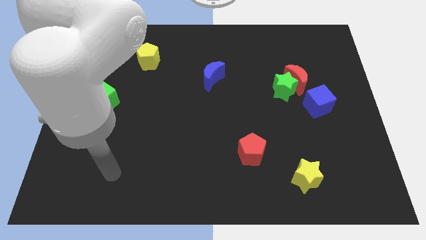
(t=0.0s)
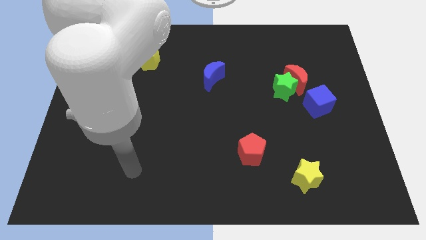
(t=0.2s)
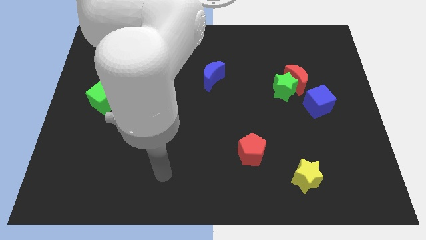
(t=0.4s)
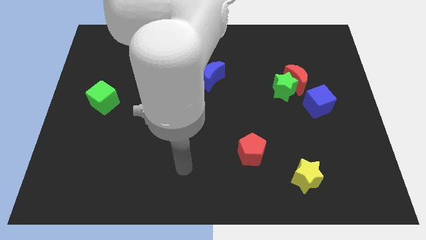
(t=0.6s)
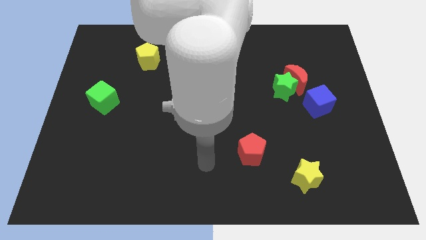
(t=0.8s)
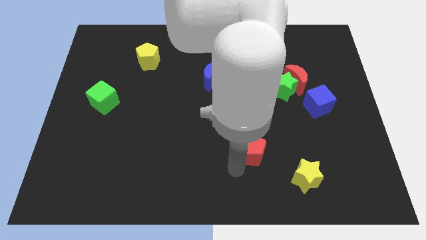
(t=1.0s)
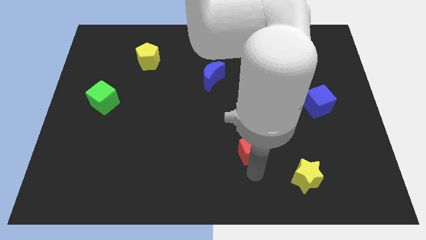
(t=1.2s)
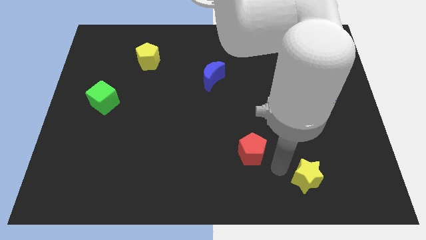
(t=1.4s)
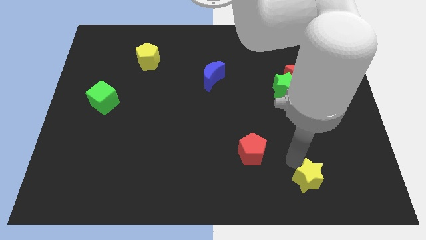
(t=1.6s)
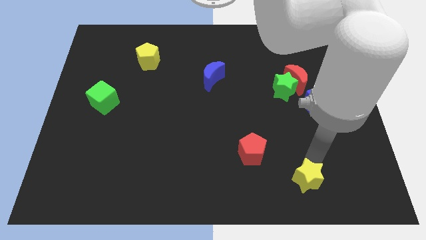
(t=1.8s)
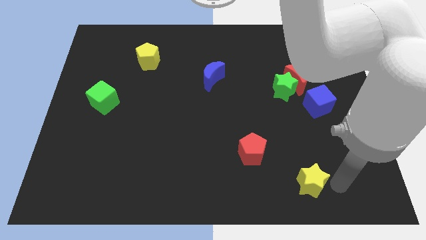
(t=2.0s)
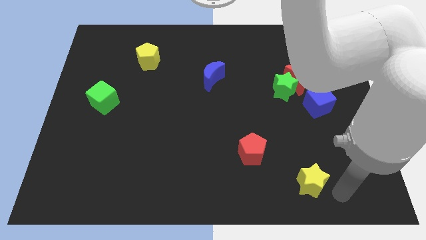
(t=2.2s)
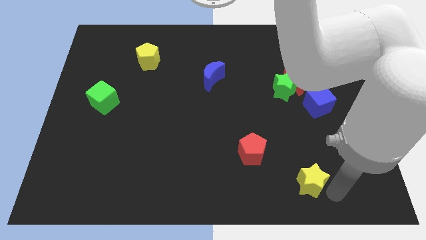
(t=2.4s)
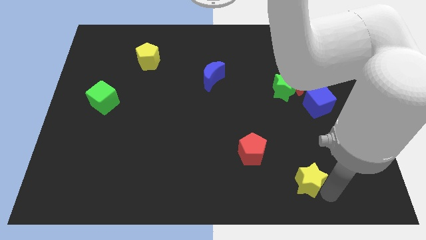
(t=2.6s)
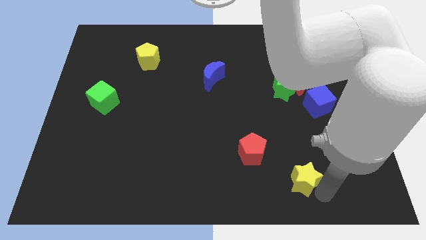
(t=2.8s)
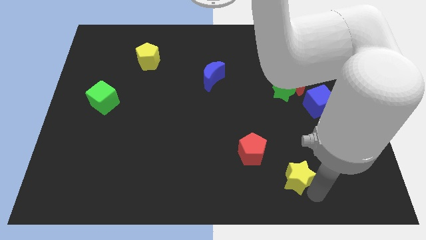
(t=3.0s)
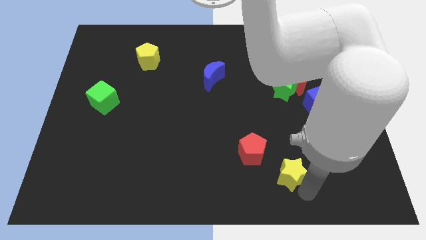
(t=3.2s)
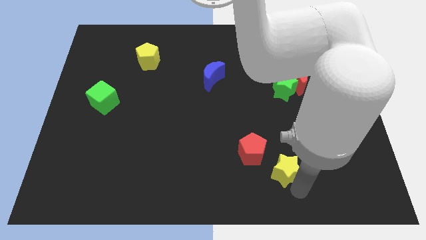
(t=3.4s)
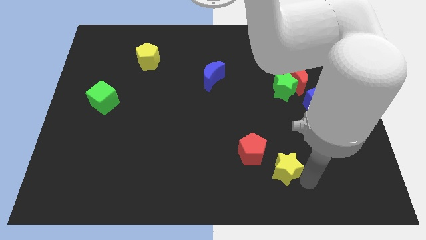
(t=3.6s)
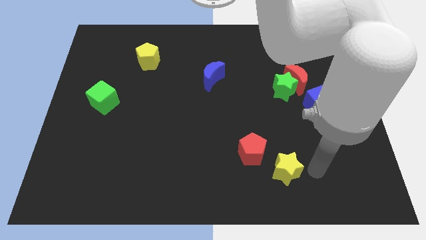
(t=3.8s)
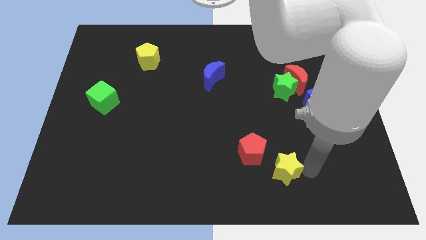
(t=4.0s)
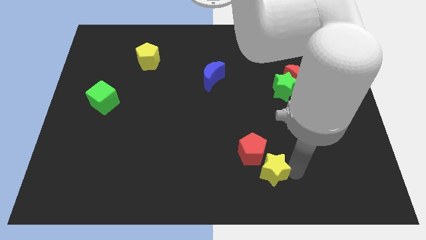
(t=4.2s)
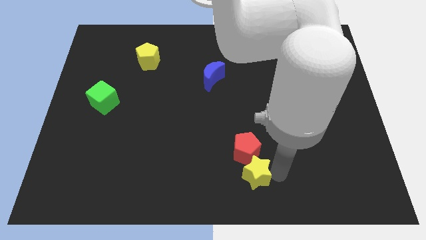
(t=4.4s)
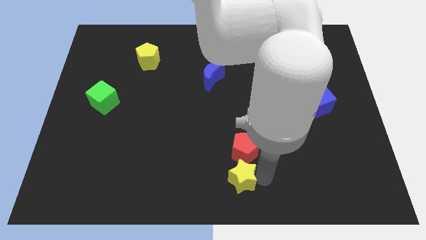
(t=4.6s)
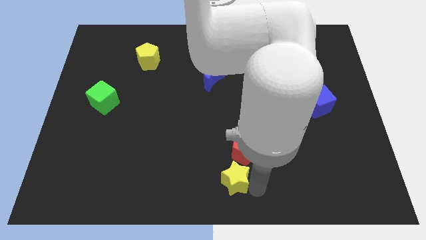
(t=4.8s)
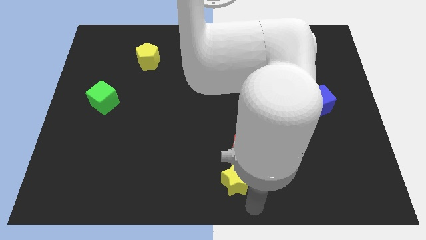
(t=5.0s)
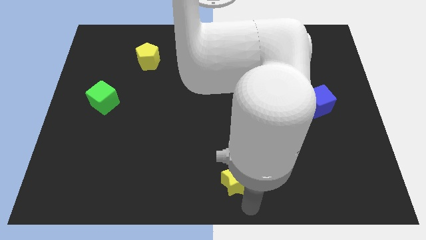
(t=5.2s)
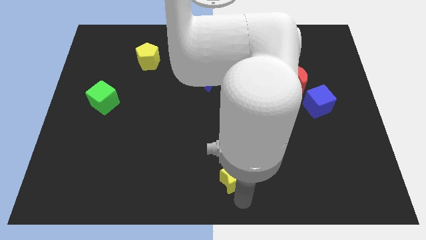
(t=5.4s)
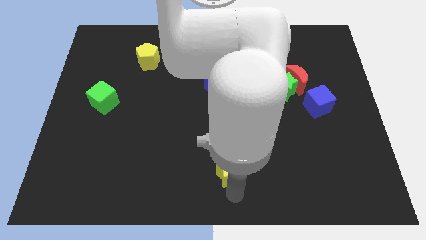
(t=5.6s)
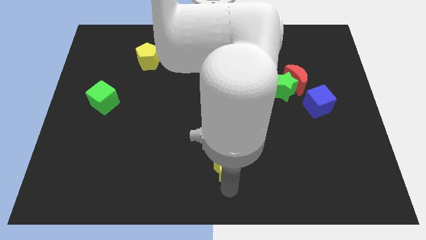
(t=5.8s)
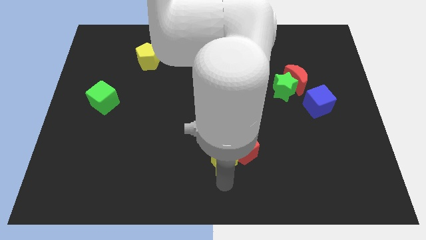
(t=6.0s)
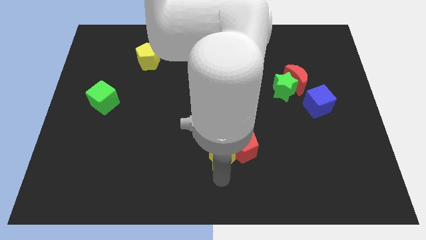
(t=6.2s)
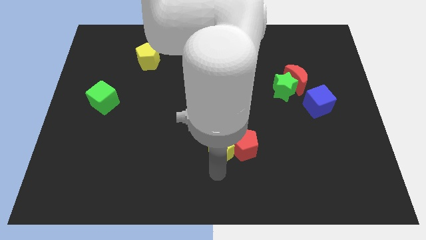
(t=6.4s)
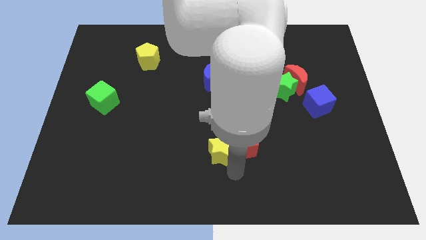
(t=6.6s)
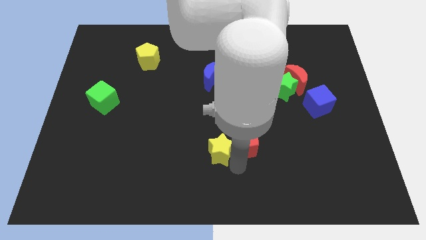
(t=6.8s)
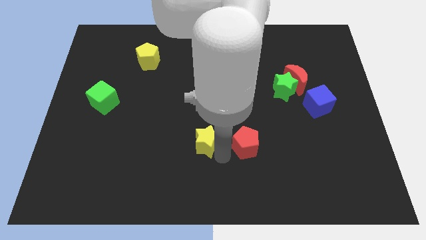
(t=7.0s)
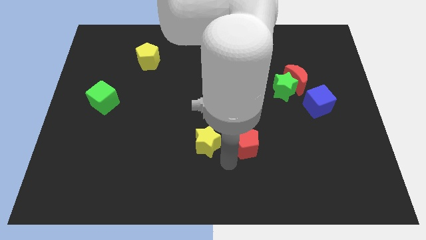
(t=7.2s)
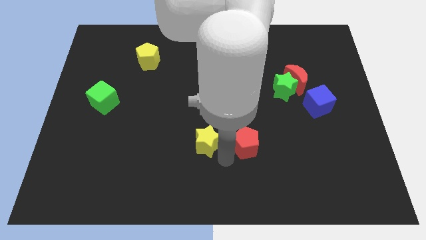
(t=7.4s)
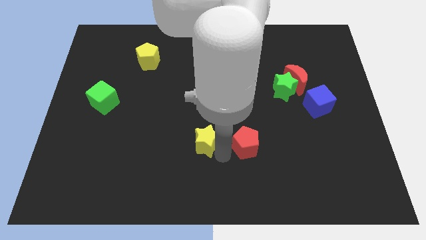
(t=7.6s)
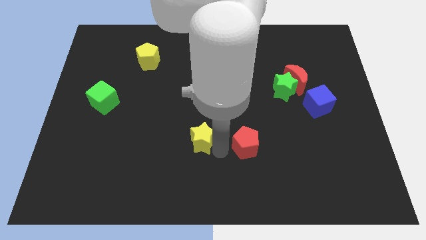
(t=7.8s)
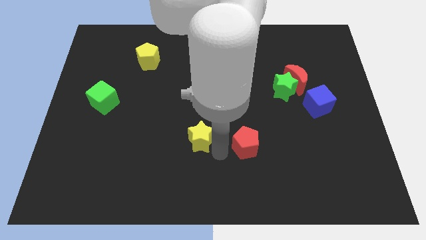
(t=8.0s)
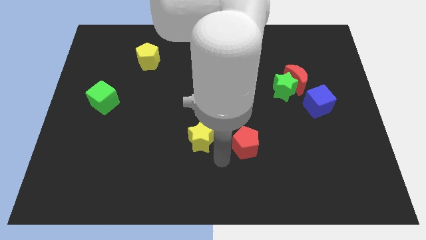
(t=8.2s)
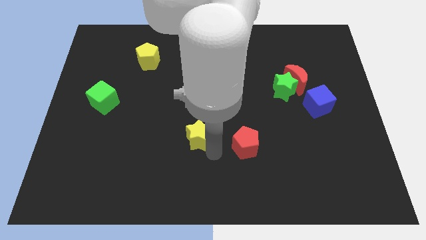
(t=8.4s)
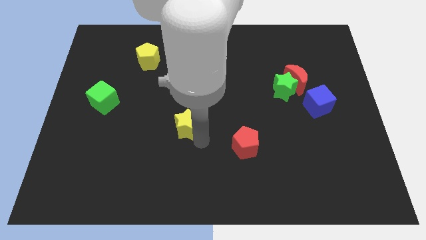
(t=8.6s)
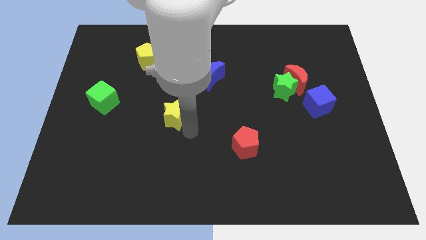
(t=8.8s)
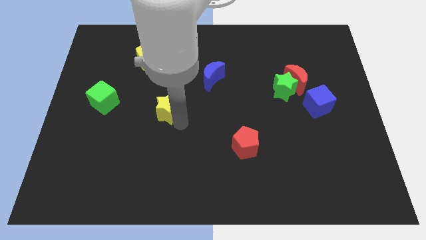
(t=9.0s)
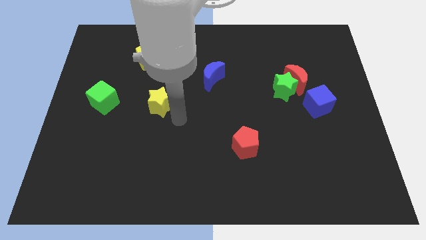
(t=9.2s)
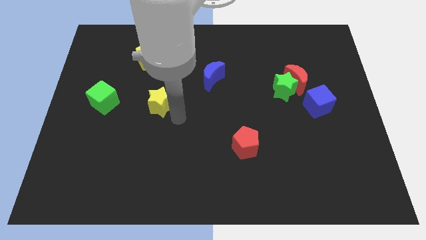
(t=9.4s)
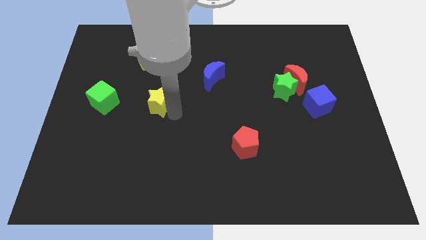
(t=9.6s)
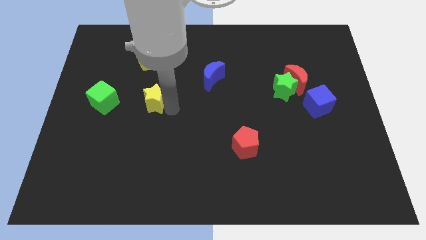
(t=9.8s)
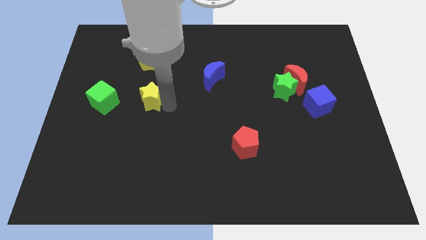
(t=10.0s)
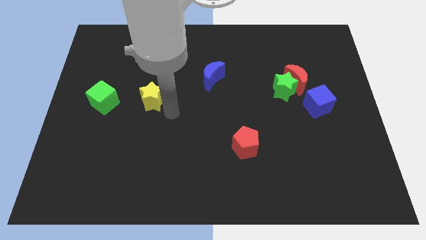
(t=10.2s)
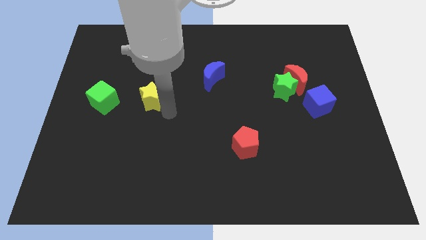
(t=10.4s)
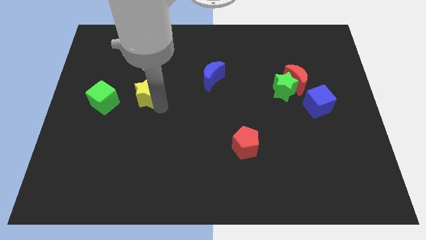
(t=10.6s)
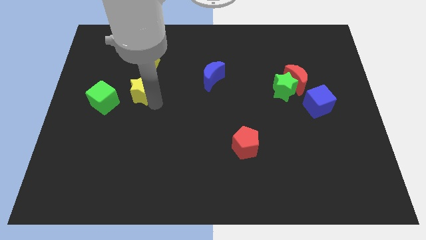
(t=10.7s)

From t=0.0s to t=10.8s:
slide the yellow star to the top right side of the green cube

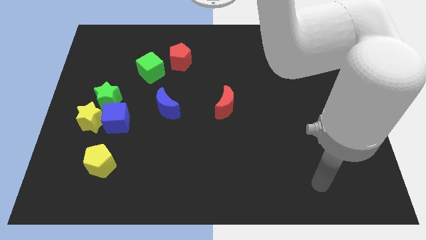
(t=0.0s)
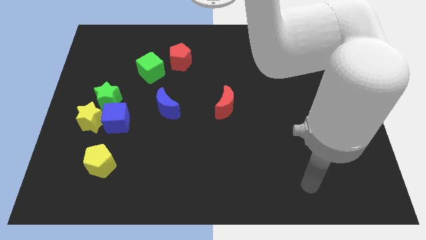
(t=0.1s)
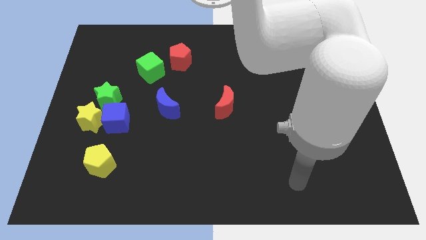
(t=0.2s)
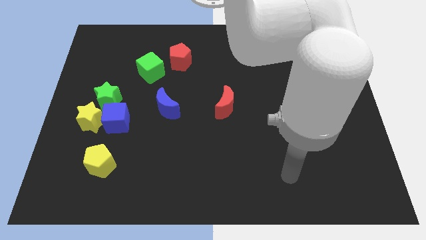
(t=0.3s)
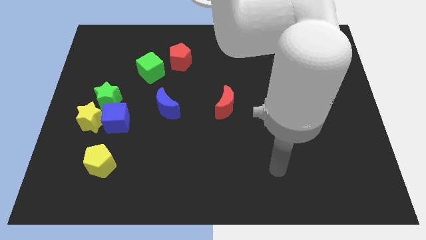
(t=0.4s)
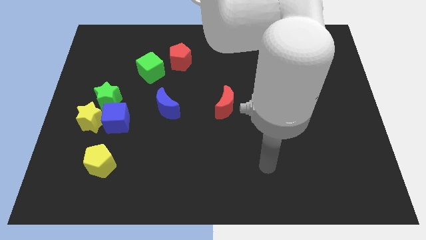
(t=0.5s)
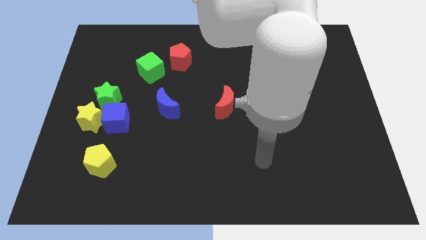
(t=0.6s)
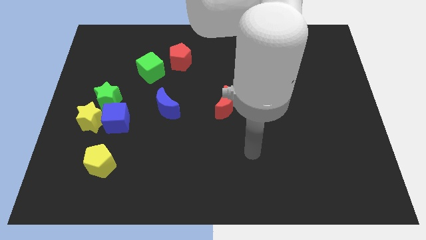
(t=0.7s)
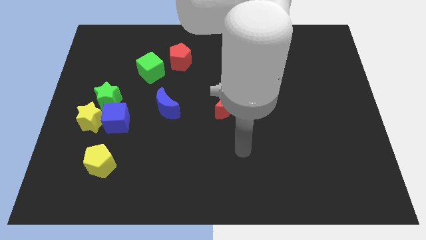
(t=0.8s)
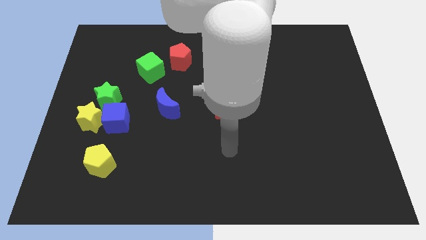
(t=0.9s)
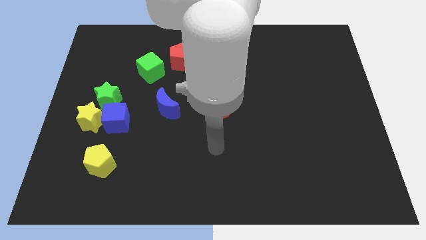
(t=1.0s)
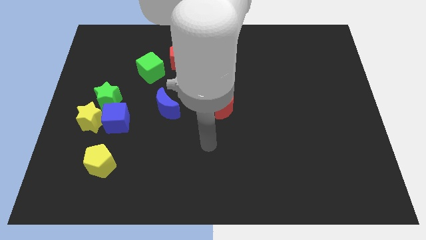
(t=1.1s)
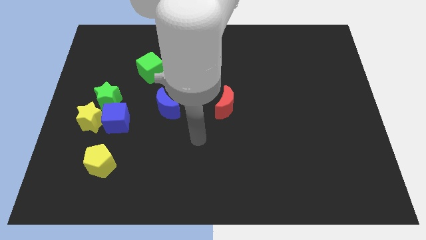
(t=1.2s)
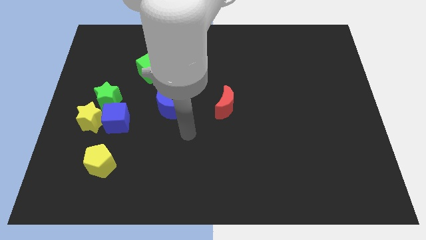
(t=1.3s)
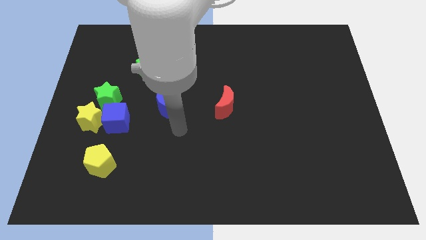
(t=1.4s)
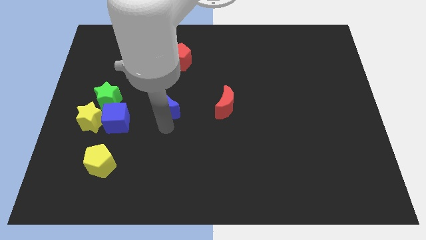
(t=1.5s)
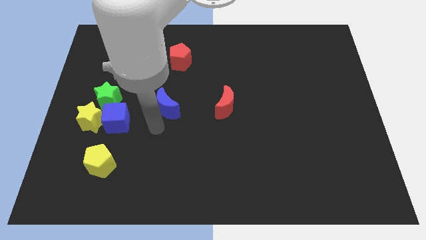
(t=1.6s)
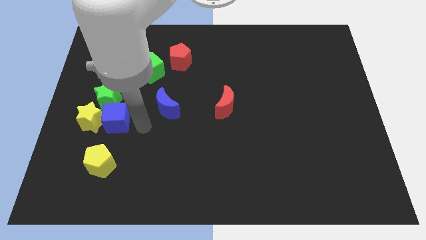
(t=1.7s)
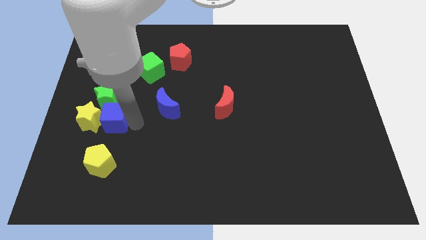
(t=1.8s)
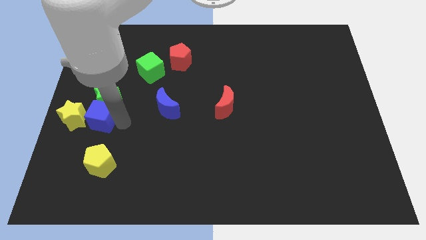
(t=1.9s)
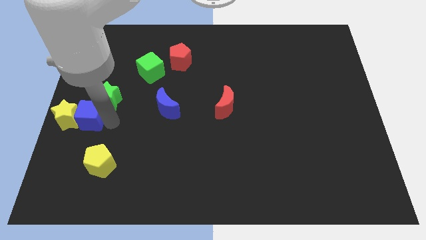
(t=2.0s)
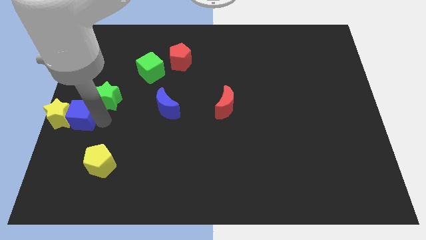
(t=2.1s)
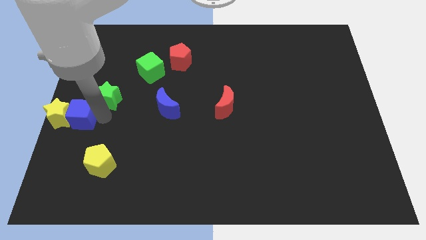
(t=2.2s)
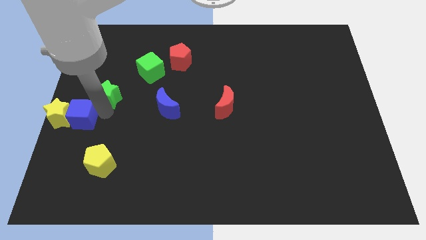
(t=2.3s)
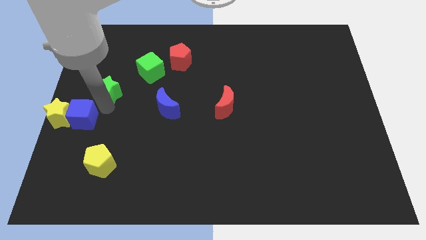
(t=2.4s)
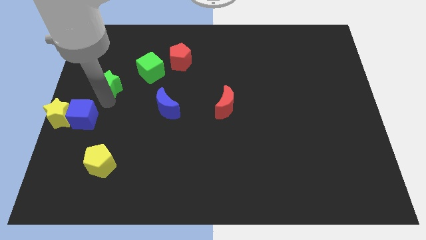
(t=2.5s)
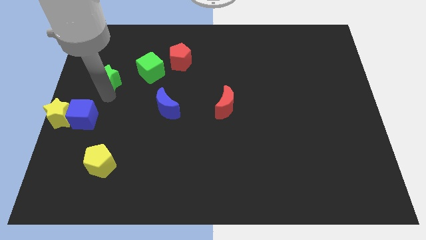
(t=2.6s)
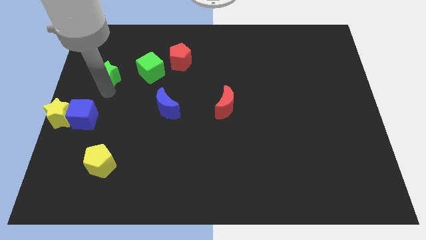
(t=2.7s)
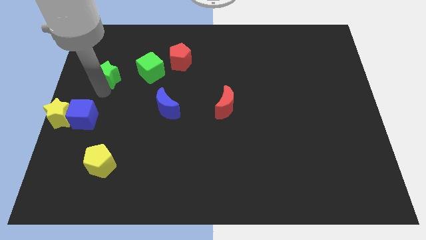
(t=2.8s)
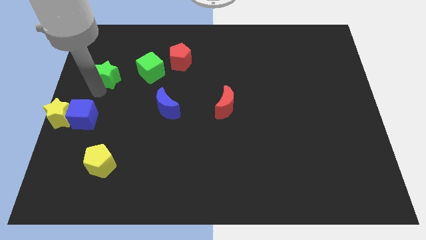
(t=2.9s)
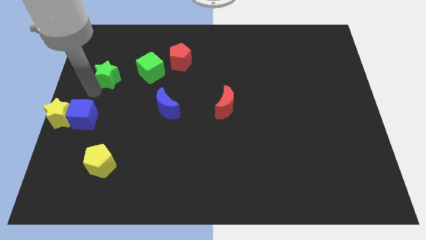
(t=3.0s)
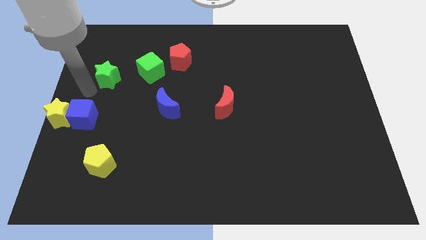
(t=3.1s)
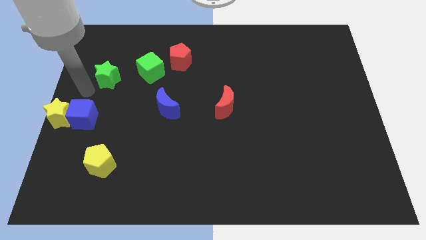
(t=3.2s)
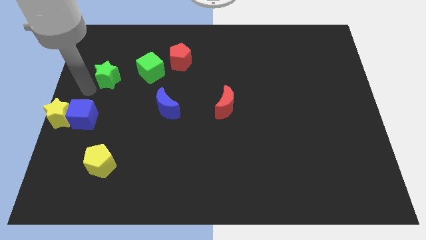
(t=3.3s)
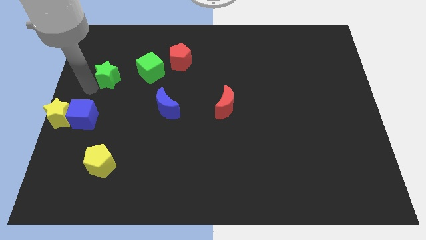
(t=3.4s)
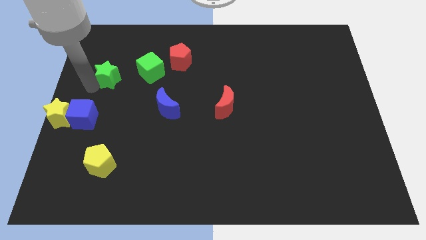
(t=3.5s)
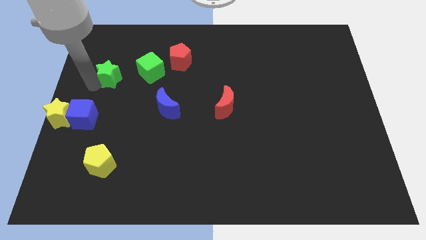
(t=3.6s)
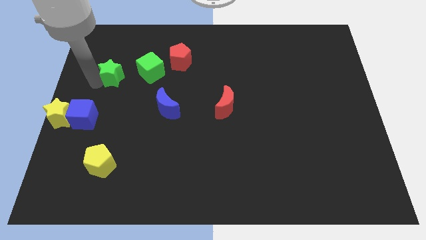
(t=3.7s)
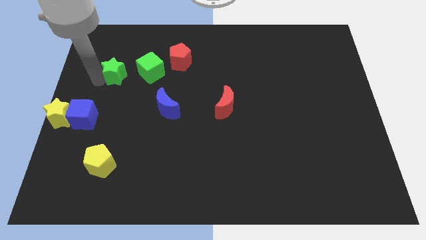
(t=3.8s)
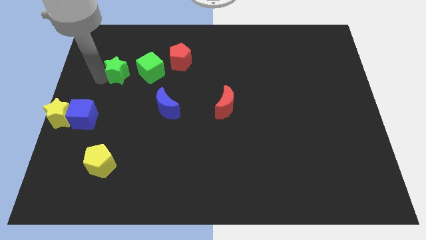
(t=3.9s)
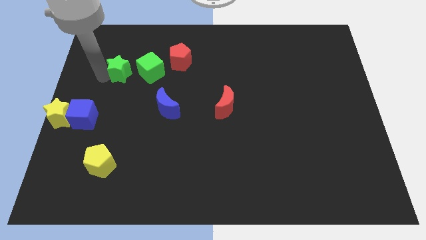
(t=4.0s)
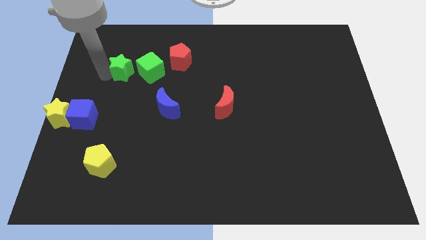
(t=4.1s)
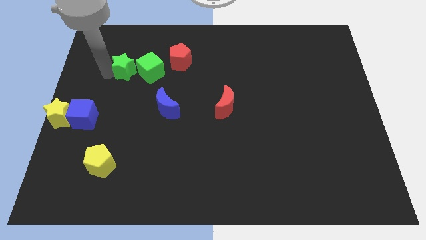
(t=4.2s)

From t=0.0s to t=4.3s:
slide the green star to the top left side of the green cube
